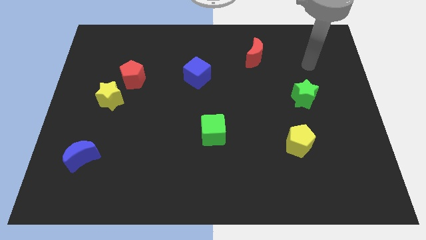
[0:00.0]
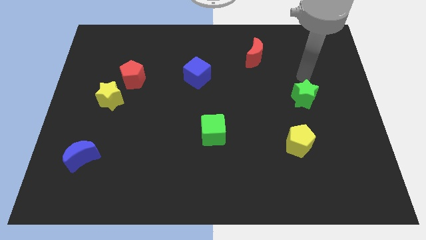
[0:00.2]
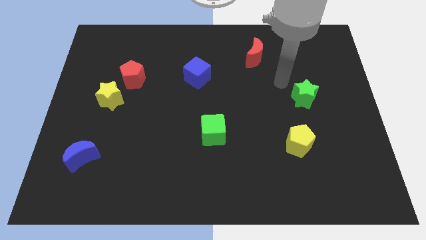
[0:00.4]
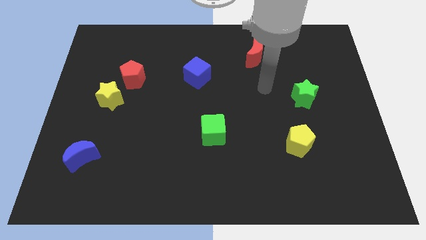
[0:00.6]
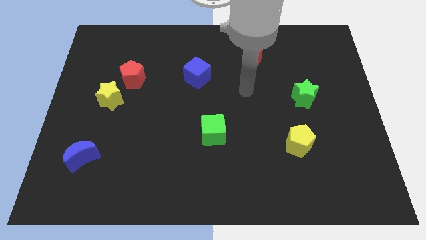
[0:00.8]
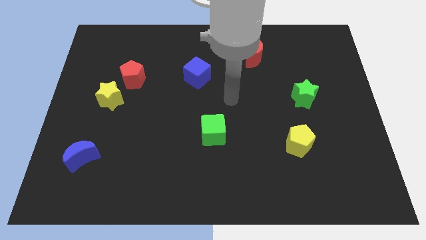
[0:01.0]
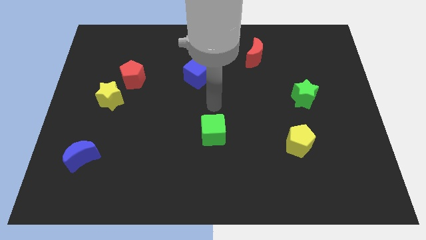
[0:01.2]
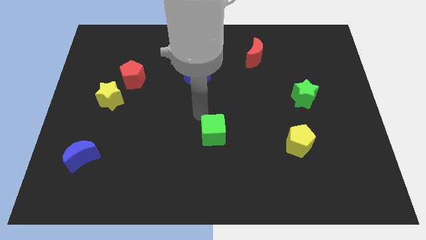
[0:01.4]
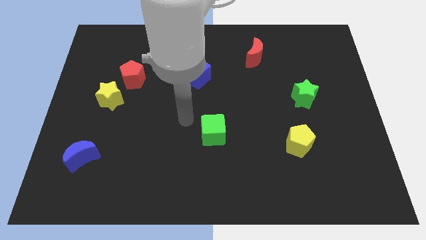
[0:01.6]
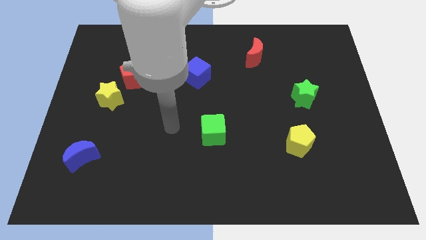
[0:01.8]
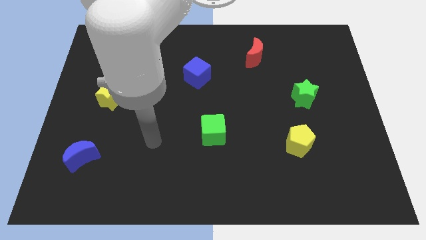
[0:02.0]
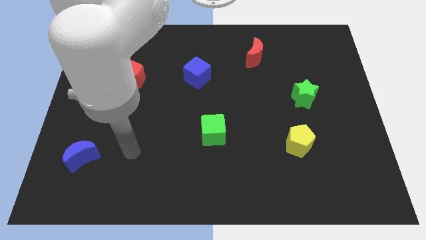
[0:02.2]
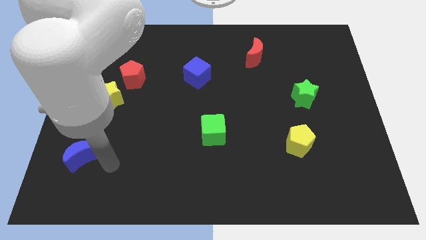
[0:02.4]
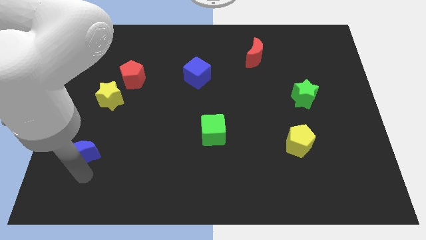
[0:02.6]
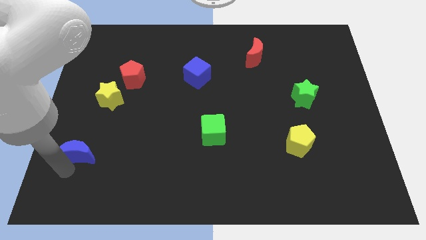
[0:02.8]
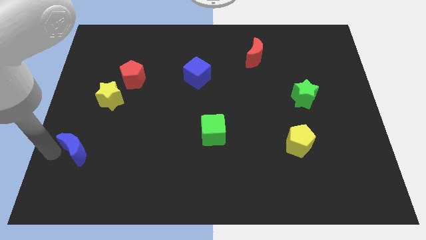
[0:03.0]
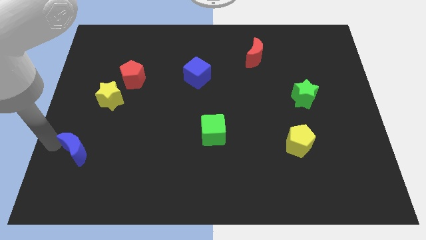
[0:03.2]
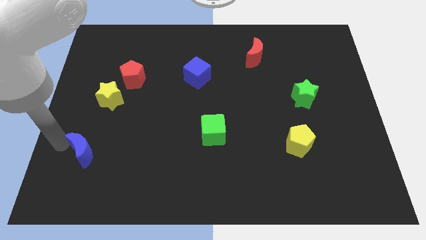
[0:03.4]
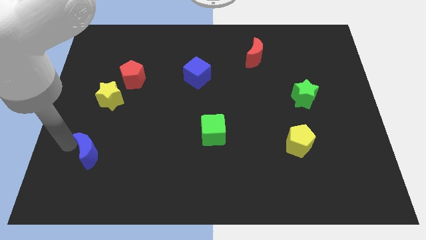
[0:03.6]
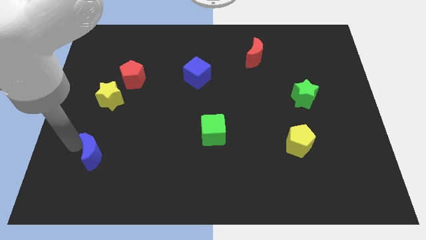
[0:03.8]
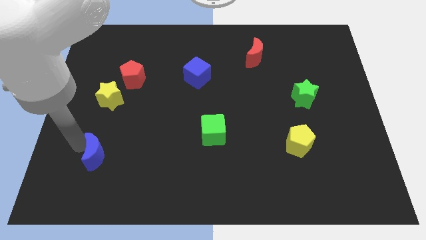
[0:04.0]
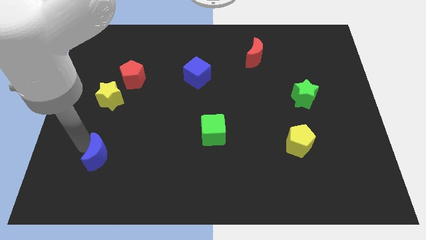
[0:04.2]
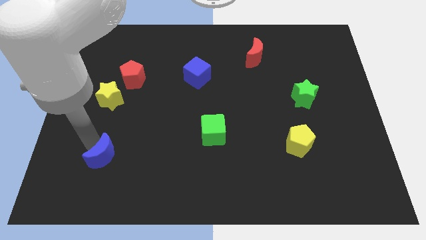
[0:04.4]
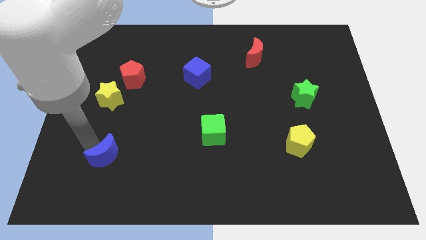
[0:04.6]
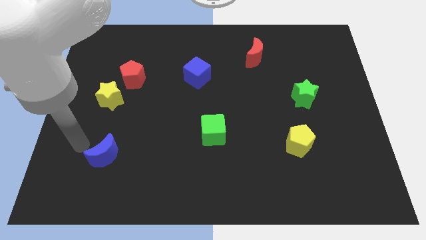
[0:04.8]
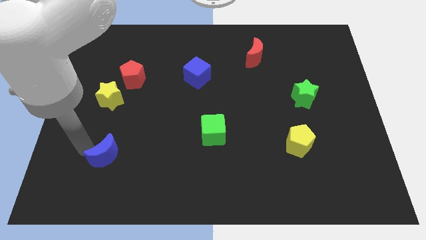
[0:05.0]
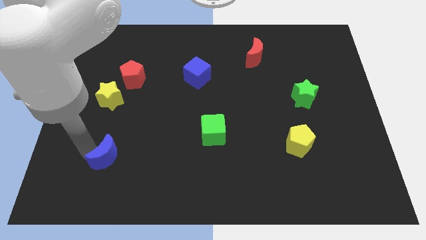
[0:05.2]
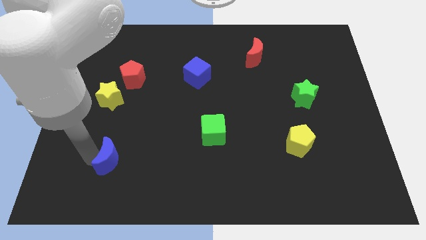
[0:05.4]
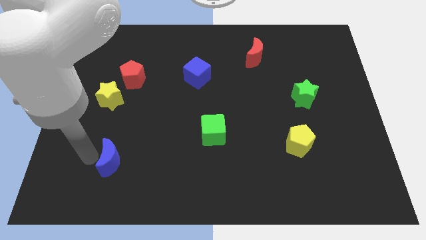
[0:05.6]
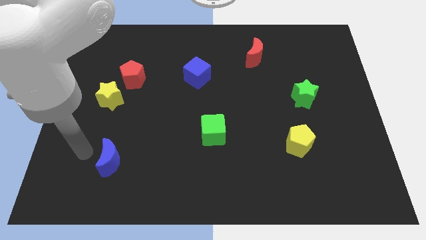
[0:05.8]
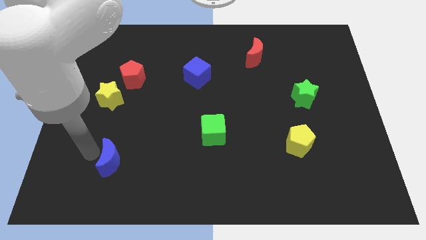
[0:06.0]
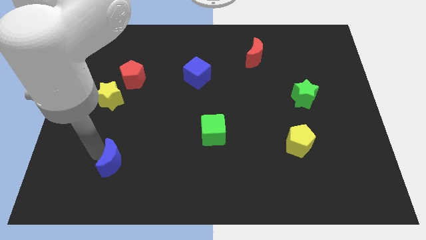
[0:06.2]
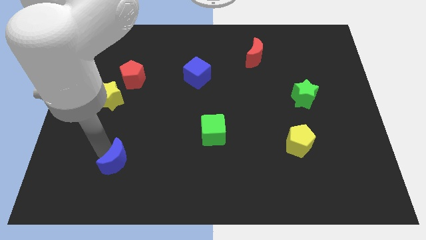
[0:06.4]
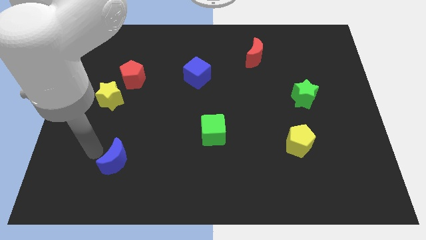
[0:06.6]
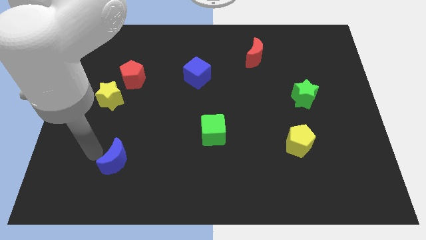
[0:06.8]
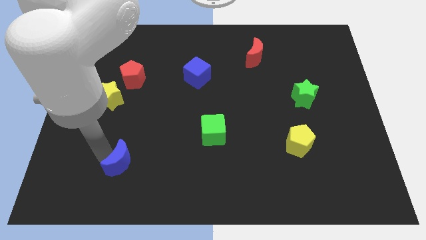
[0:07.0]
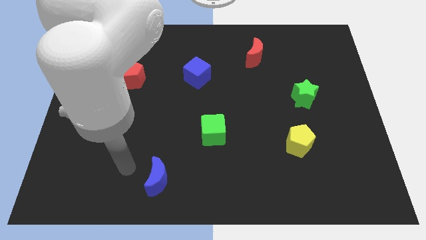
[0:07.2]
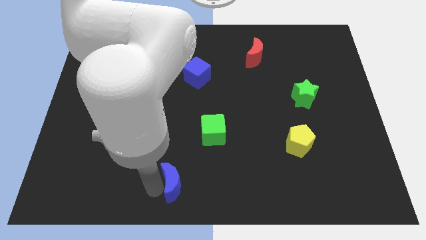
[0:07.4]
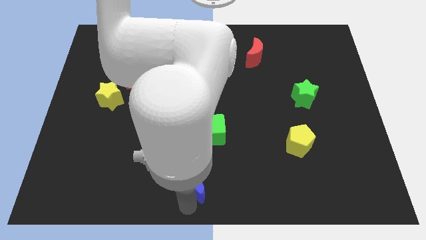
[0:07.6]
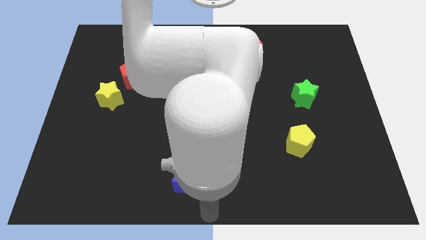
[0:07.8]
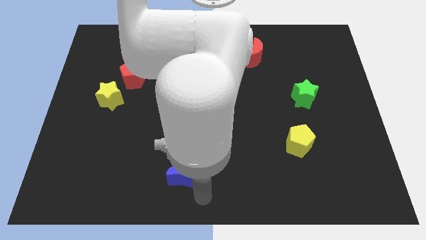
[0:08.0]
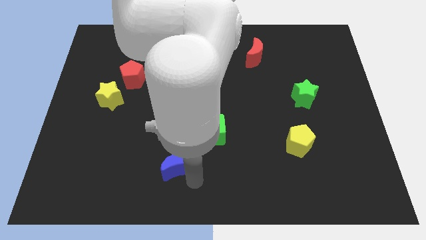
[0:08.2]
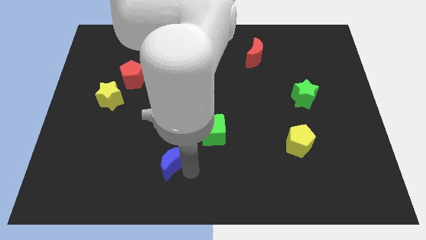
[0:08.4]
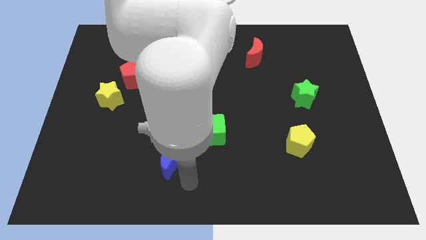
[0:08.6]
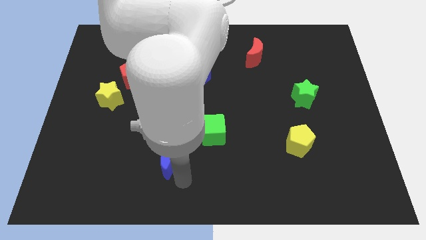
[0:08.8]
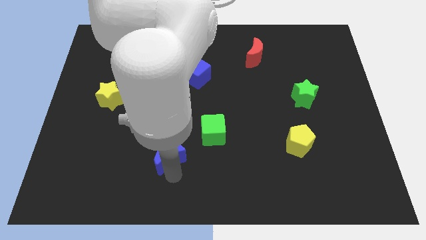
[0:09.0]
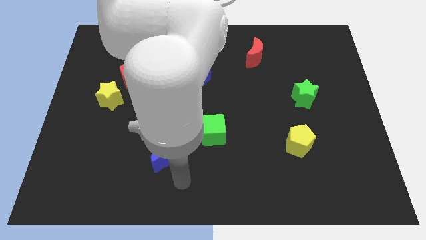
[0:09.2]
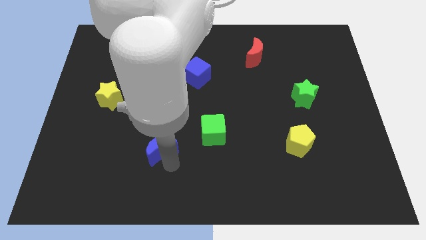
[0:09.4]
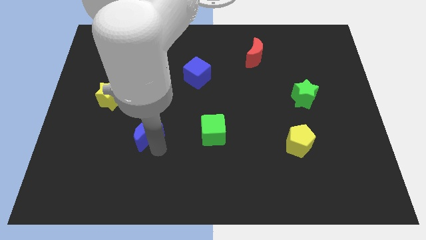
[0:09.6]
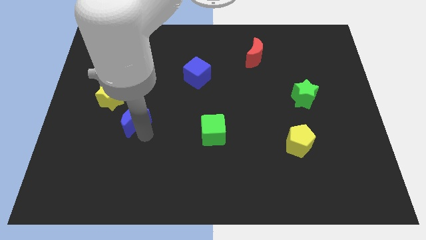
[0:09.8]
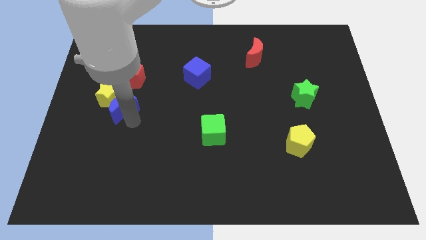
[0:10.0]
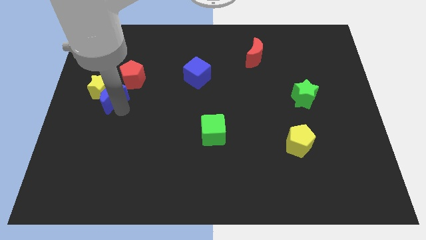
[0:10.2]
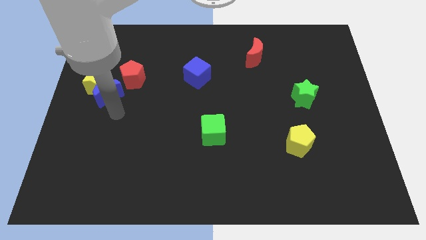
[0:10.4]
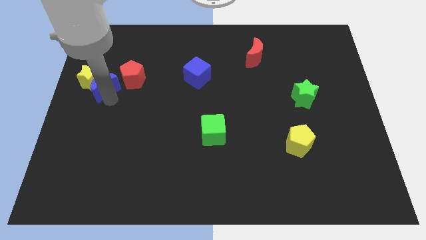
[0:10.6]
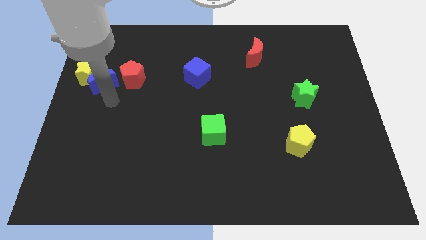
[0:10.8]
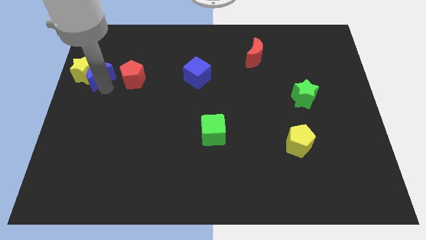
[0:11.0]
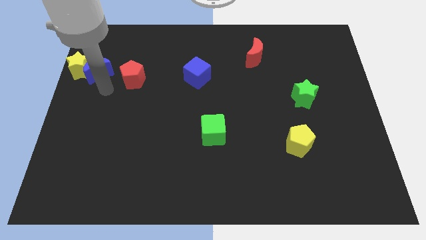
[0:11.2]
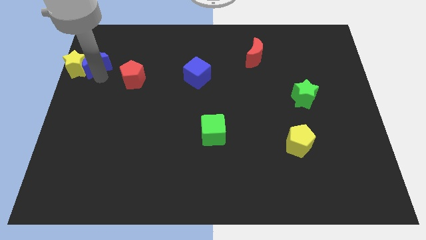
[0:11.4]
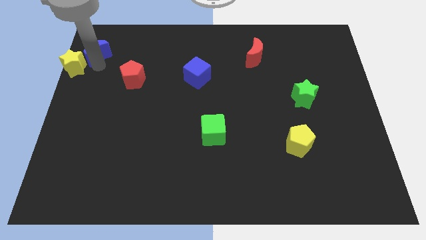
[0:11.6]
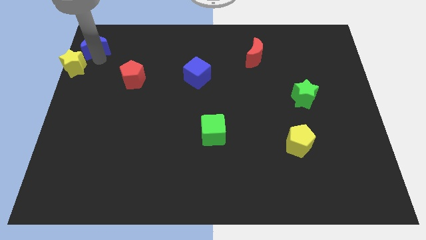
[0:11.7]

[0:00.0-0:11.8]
put the blue moon to the top left of the board

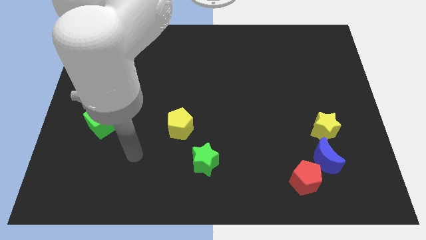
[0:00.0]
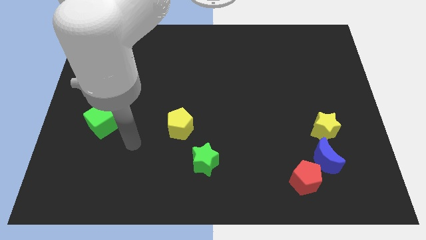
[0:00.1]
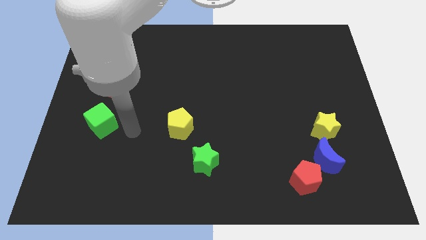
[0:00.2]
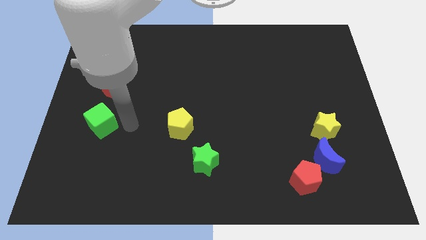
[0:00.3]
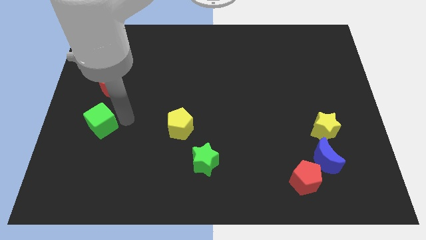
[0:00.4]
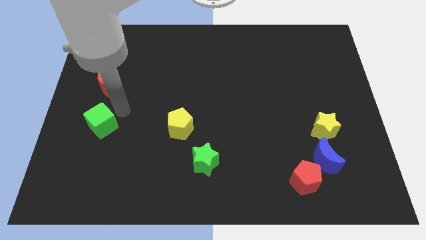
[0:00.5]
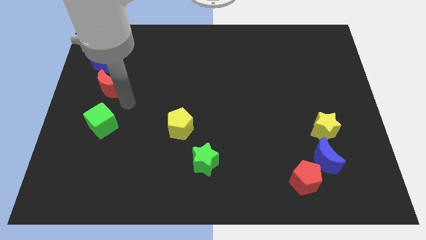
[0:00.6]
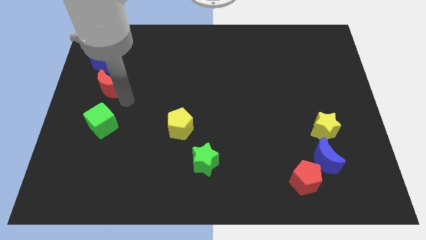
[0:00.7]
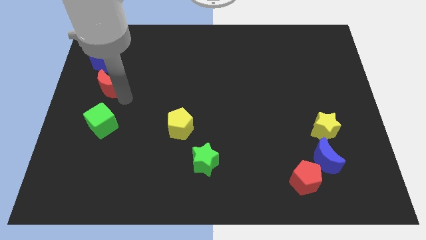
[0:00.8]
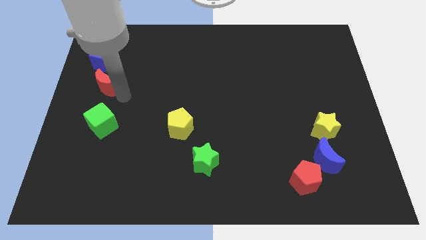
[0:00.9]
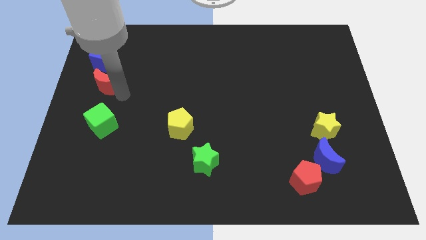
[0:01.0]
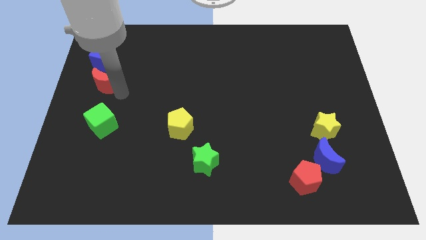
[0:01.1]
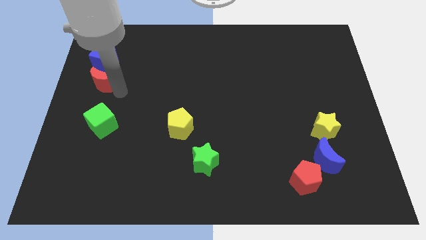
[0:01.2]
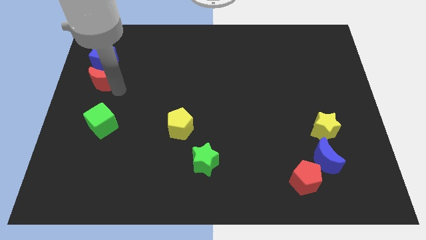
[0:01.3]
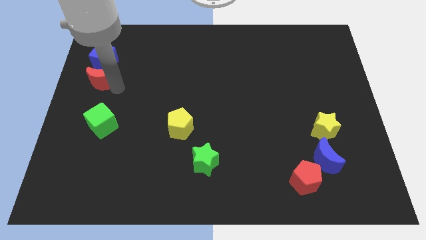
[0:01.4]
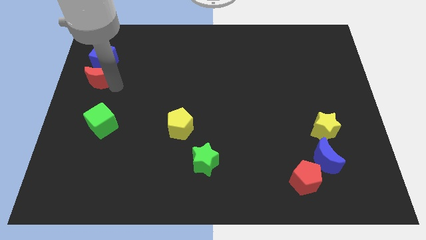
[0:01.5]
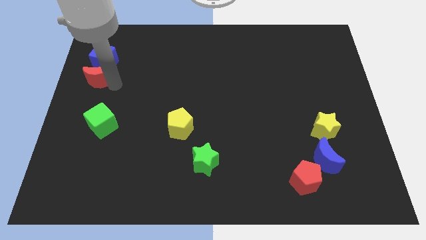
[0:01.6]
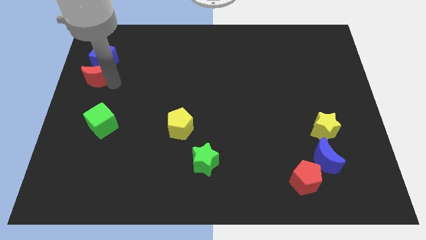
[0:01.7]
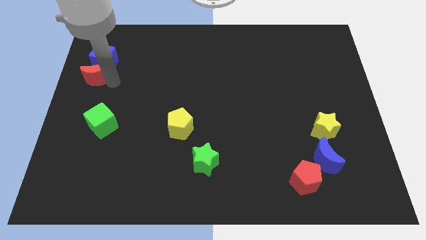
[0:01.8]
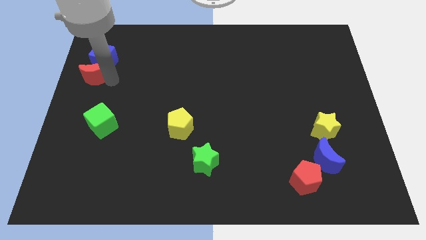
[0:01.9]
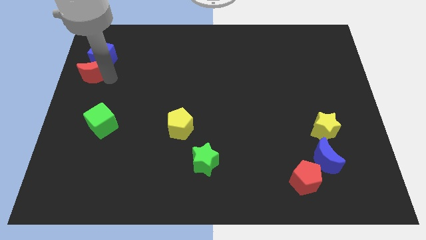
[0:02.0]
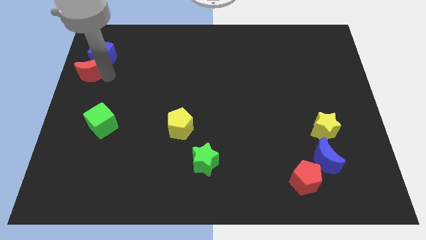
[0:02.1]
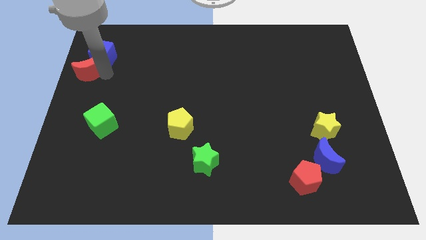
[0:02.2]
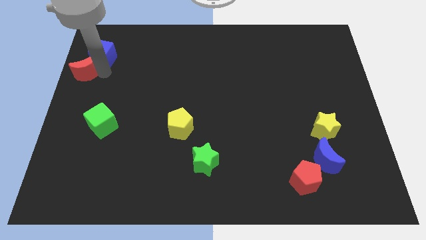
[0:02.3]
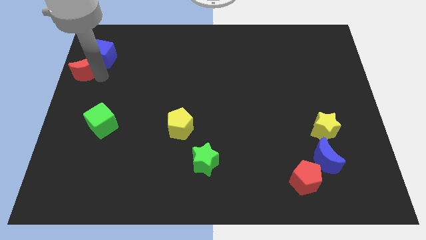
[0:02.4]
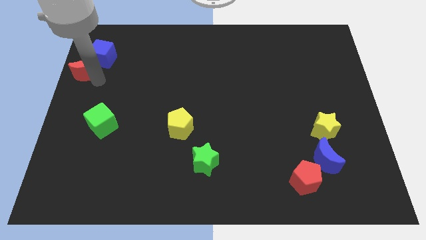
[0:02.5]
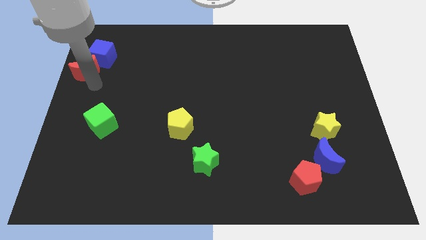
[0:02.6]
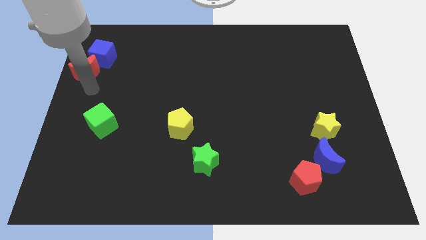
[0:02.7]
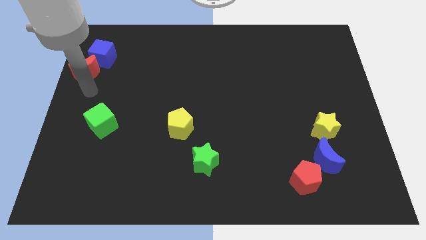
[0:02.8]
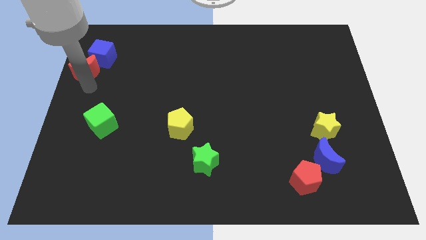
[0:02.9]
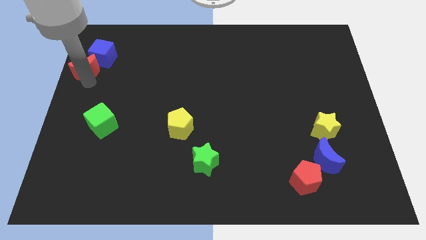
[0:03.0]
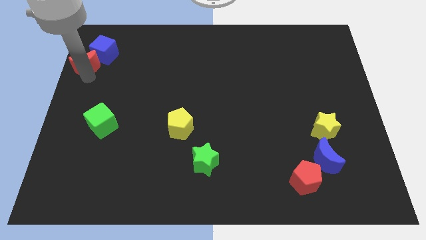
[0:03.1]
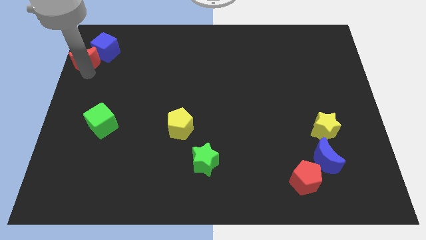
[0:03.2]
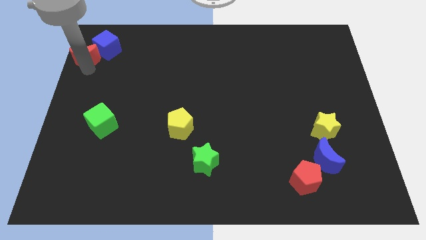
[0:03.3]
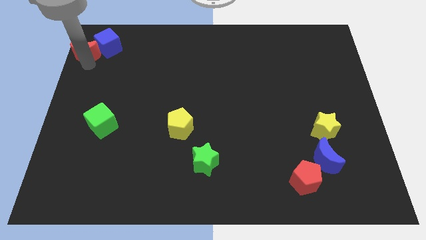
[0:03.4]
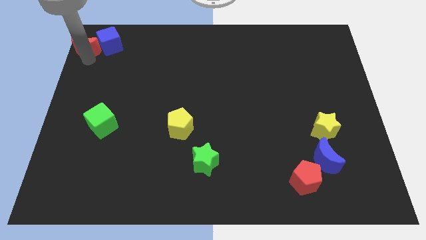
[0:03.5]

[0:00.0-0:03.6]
push the red moon to the upper left corner
